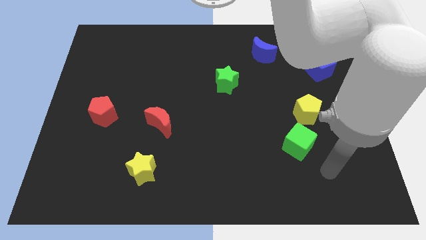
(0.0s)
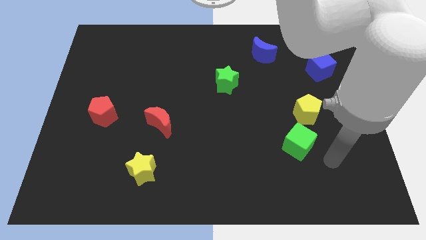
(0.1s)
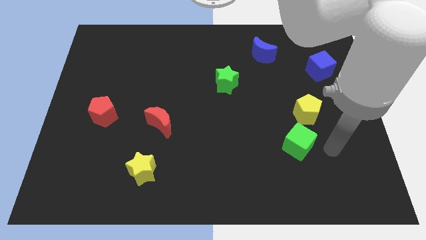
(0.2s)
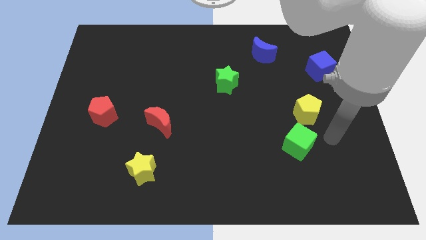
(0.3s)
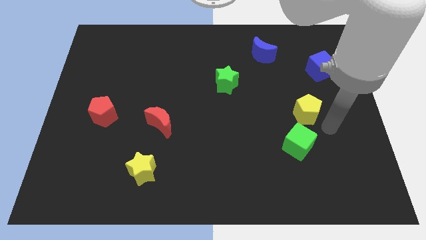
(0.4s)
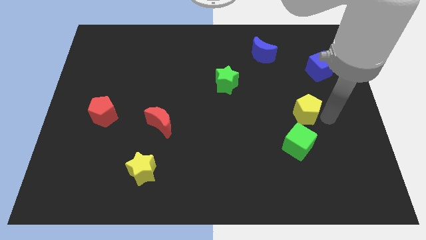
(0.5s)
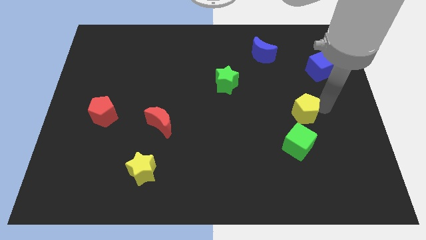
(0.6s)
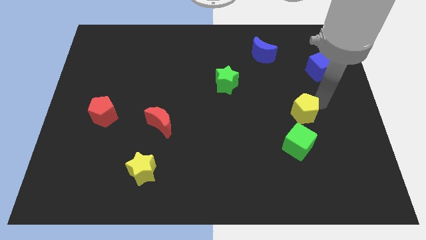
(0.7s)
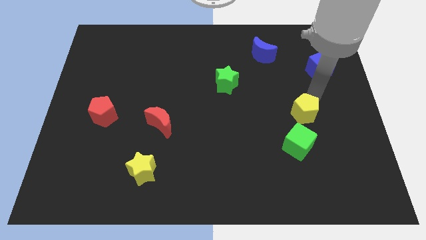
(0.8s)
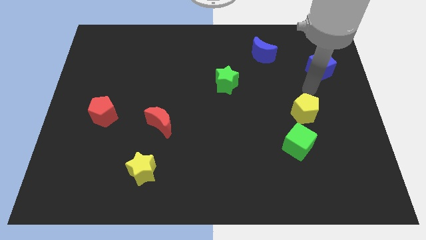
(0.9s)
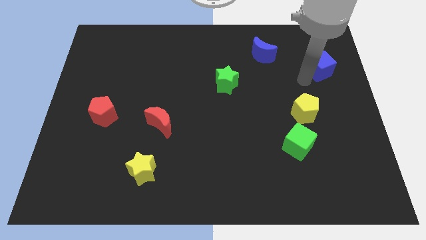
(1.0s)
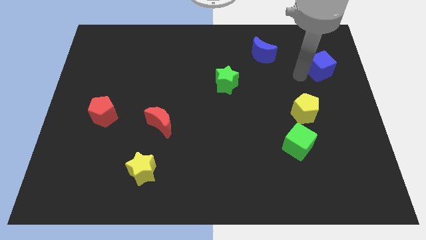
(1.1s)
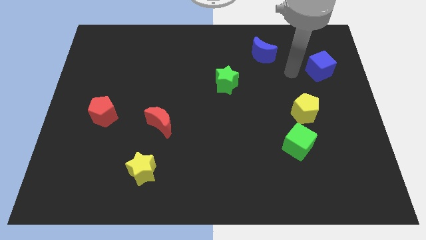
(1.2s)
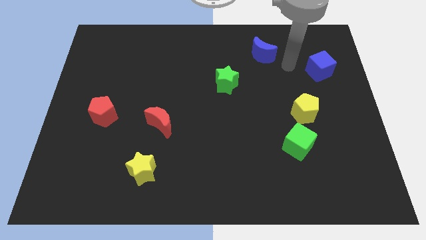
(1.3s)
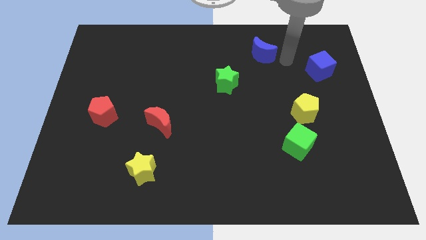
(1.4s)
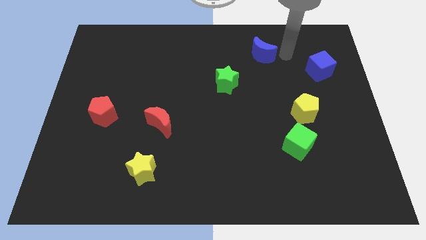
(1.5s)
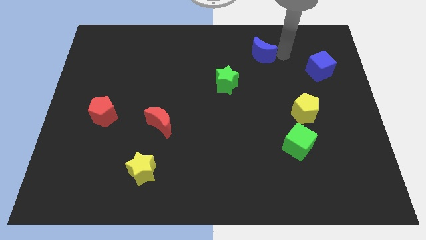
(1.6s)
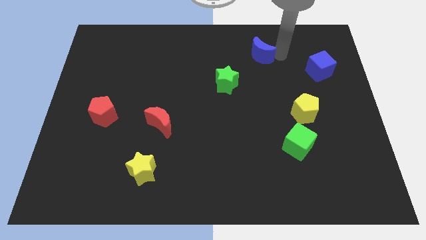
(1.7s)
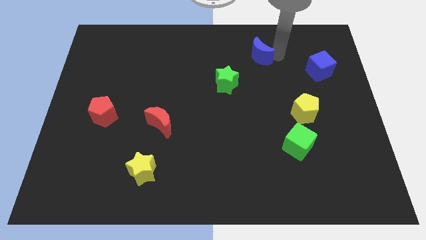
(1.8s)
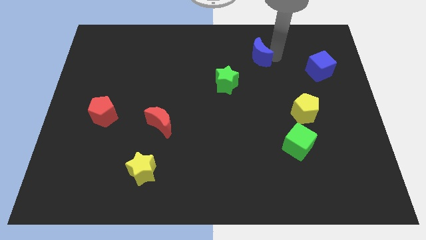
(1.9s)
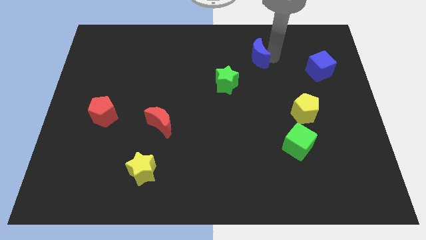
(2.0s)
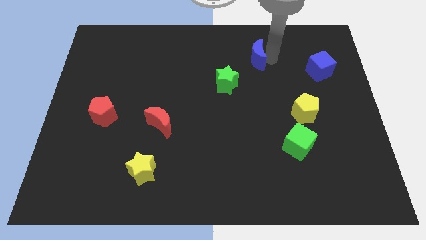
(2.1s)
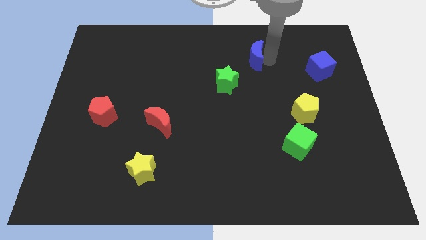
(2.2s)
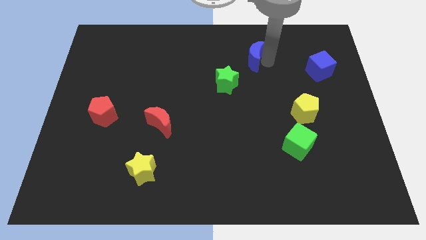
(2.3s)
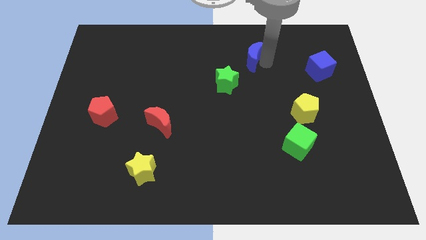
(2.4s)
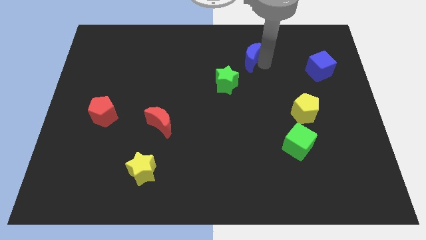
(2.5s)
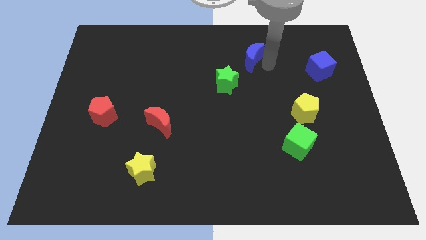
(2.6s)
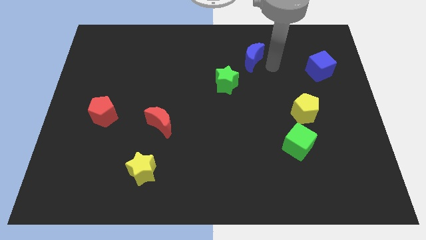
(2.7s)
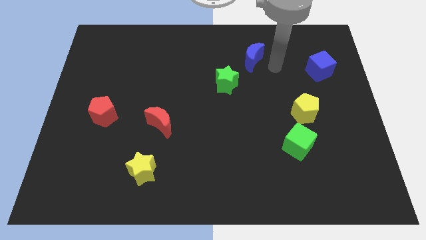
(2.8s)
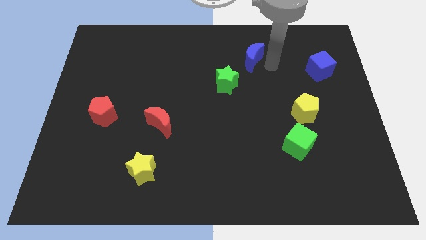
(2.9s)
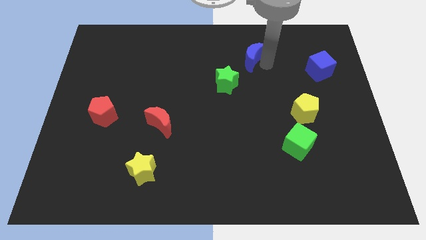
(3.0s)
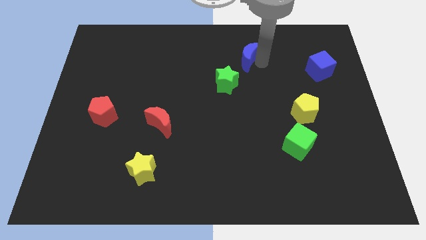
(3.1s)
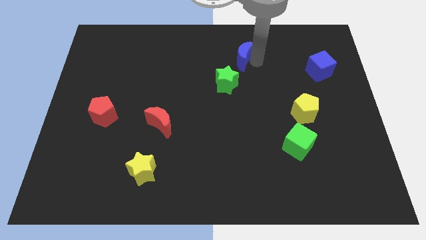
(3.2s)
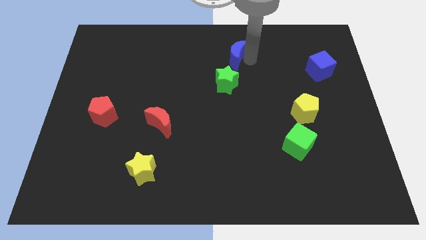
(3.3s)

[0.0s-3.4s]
slide the blue moon somewhat left

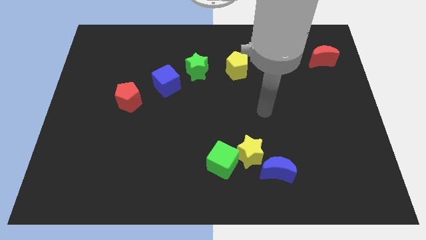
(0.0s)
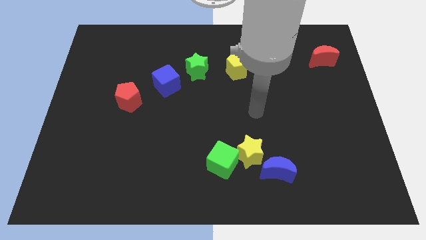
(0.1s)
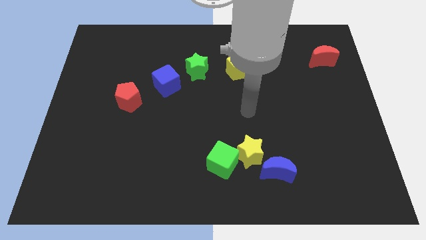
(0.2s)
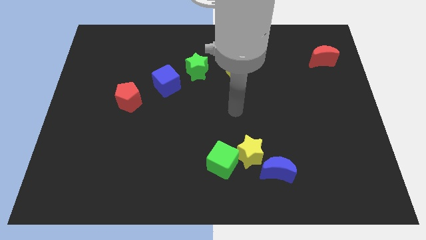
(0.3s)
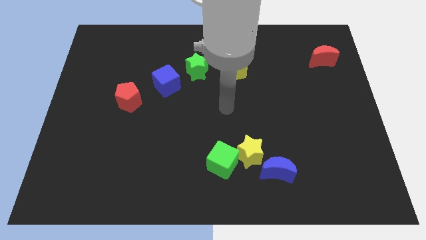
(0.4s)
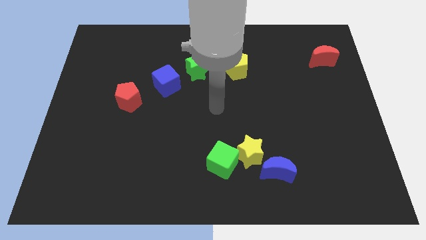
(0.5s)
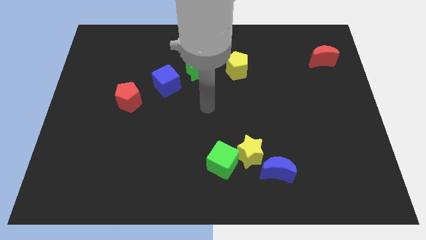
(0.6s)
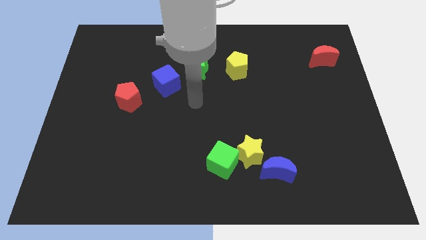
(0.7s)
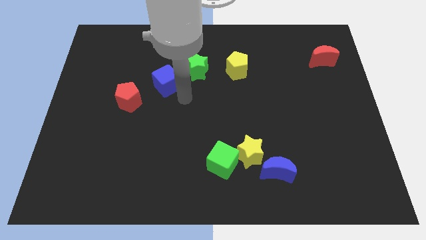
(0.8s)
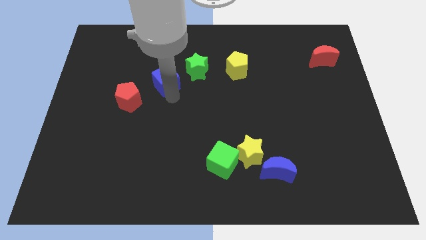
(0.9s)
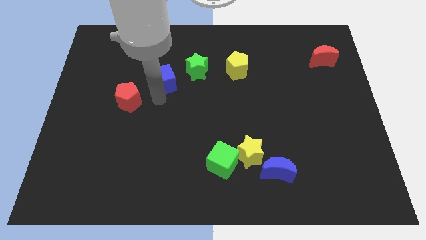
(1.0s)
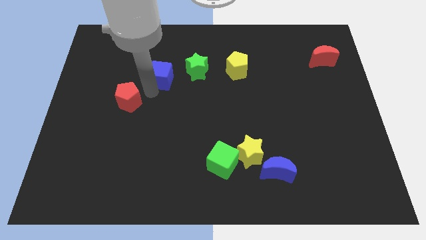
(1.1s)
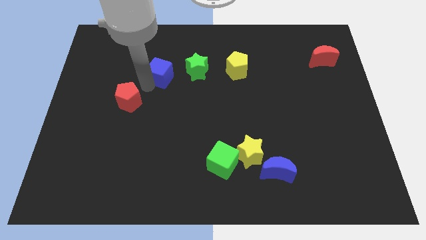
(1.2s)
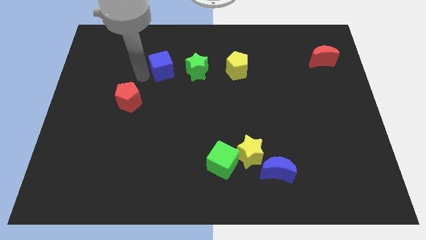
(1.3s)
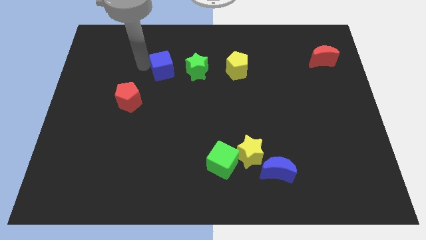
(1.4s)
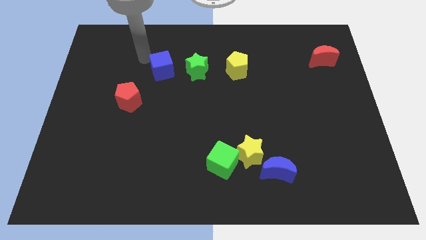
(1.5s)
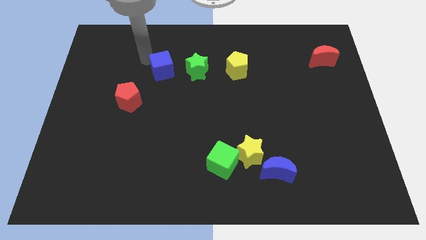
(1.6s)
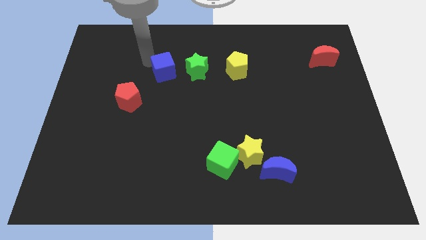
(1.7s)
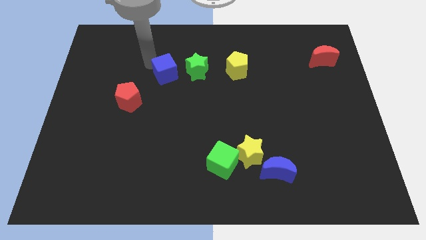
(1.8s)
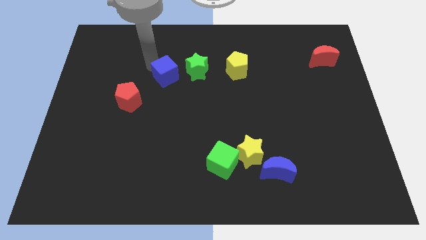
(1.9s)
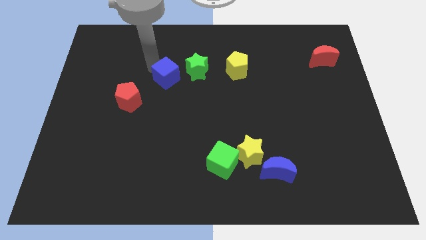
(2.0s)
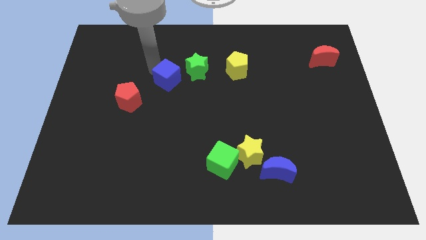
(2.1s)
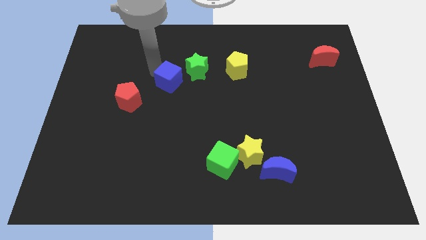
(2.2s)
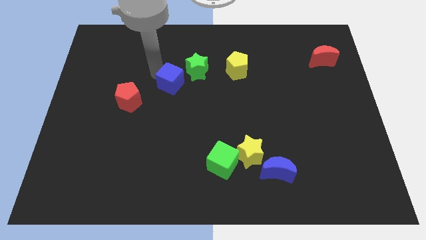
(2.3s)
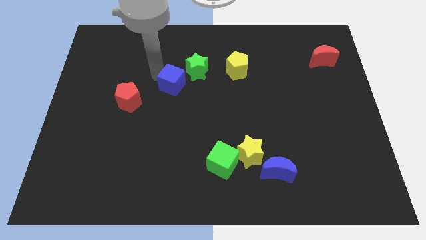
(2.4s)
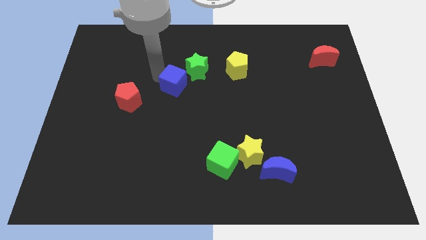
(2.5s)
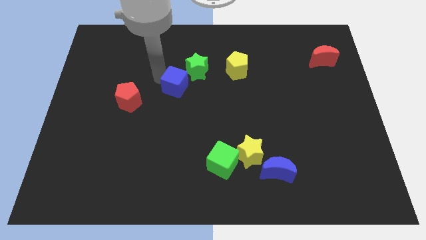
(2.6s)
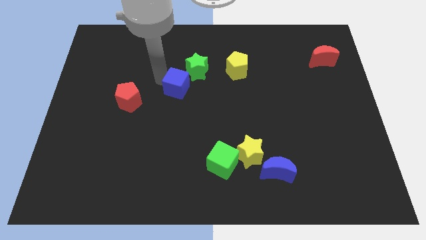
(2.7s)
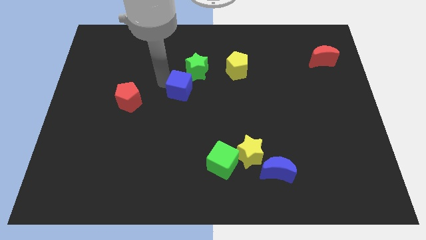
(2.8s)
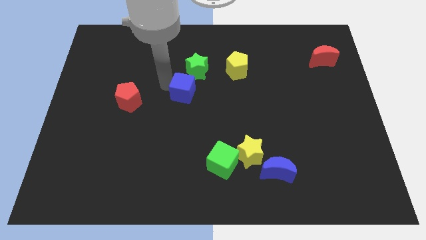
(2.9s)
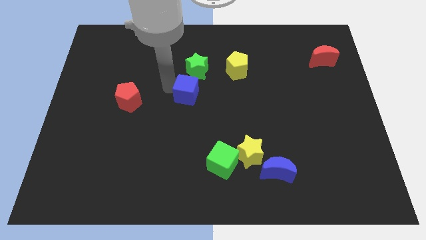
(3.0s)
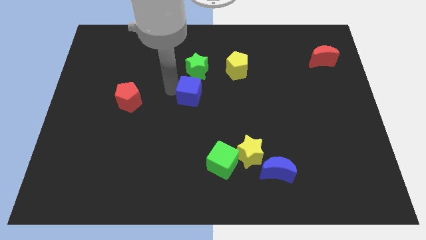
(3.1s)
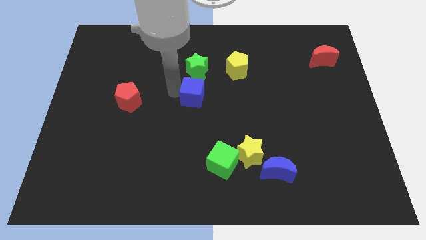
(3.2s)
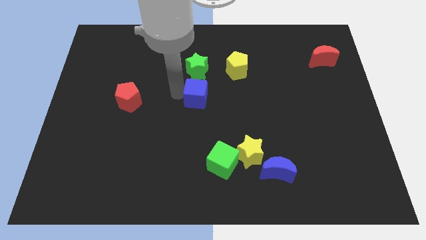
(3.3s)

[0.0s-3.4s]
push the blue cube right somewhat

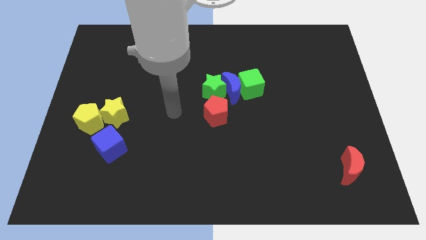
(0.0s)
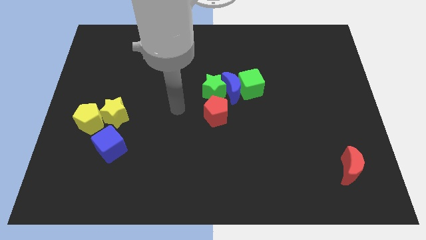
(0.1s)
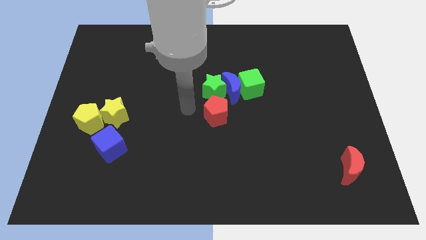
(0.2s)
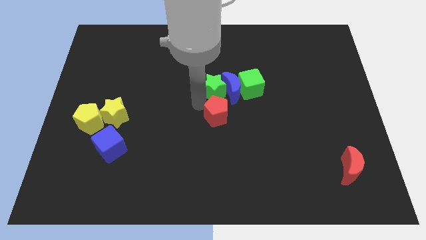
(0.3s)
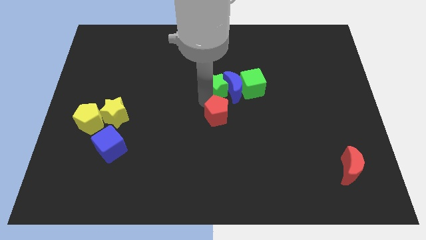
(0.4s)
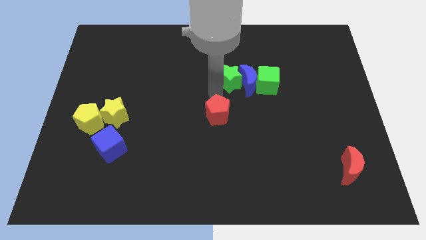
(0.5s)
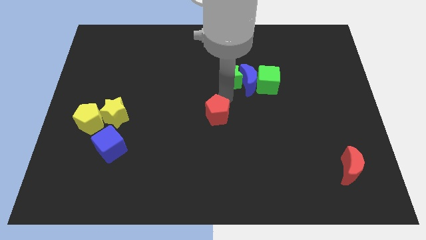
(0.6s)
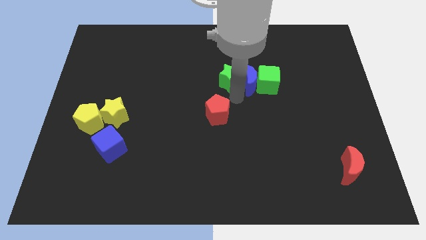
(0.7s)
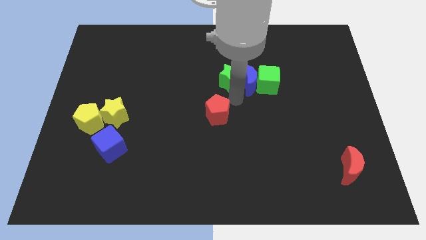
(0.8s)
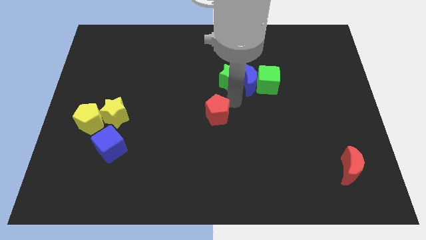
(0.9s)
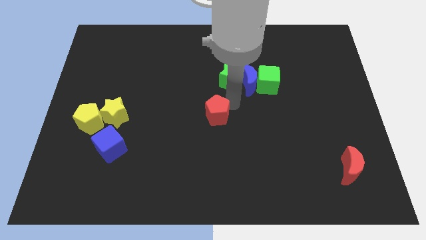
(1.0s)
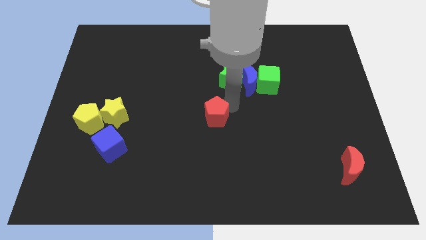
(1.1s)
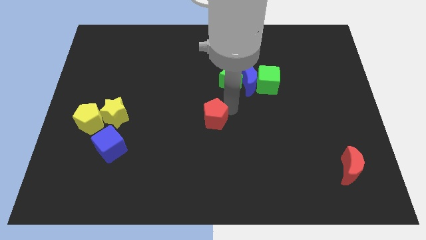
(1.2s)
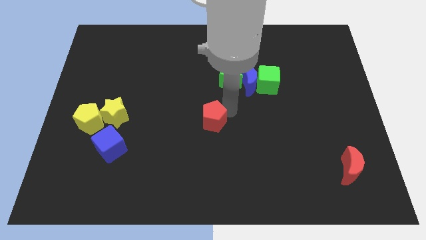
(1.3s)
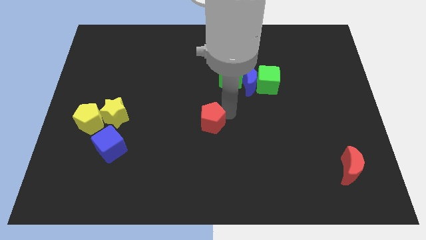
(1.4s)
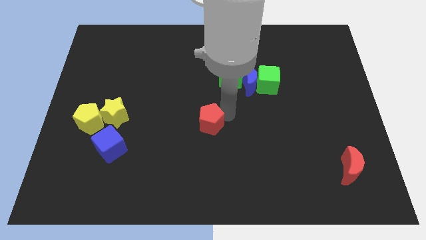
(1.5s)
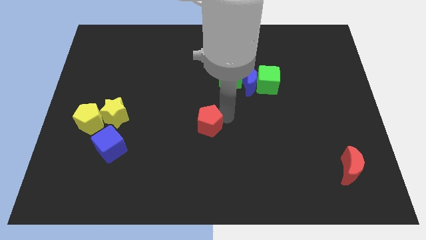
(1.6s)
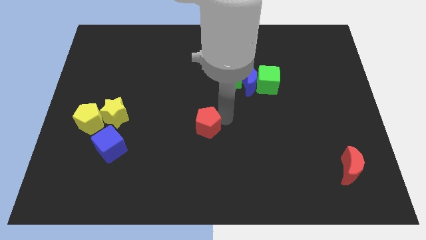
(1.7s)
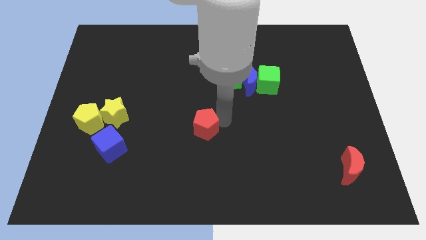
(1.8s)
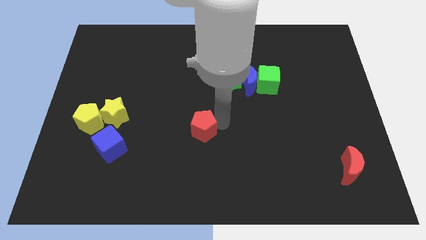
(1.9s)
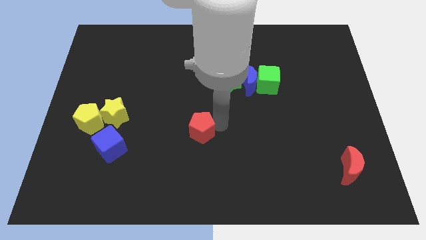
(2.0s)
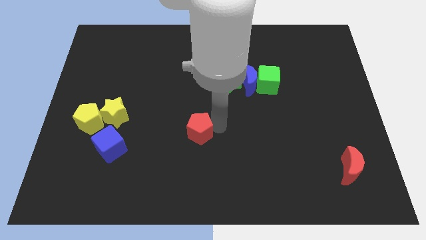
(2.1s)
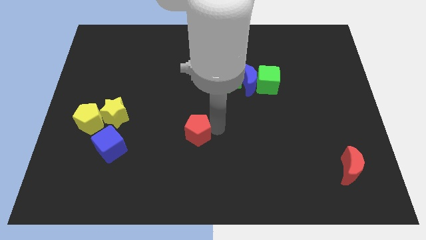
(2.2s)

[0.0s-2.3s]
slide the red pentagon downwards and left a little
